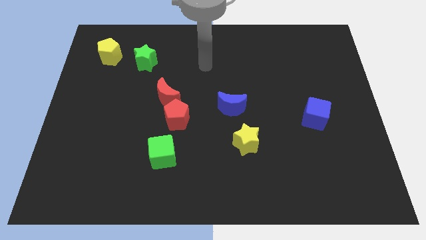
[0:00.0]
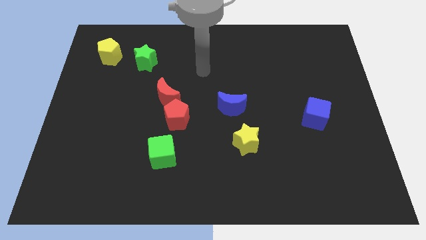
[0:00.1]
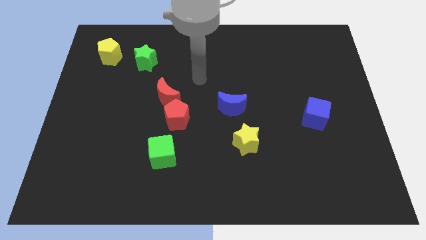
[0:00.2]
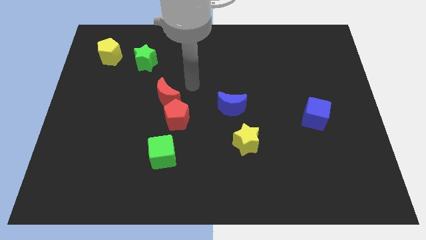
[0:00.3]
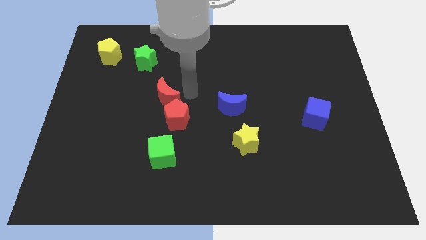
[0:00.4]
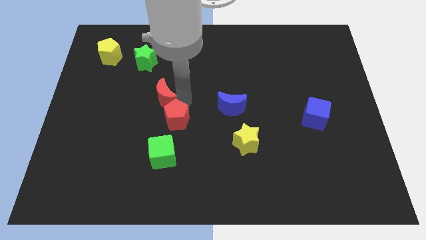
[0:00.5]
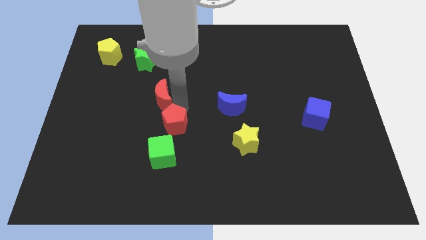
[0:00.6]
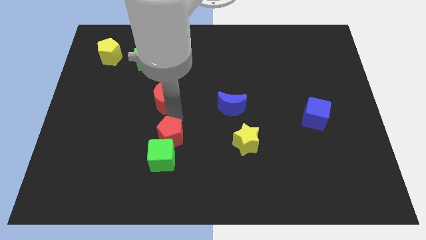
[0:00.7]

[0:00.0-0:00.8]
pull the red moon apart from the red pentagon

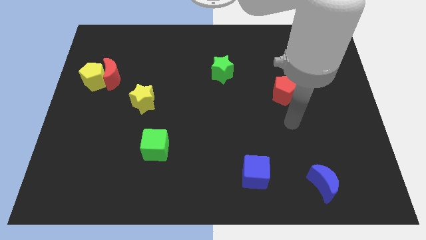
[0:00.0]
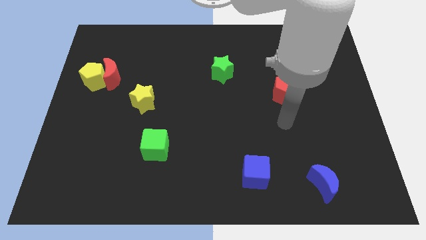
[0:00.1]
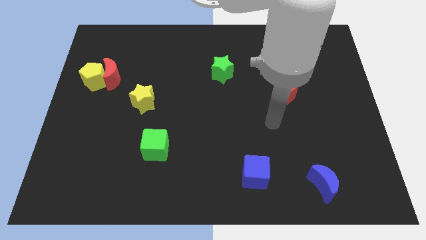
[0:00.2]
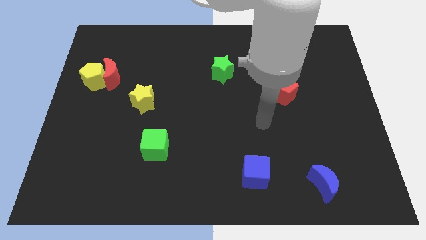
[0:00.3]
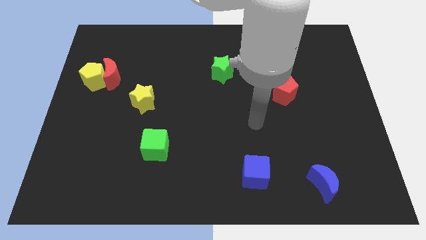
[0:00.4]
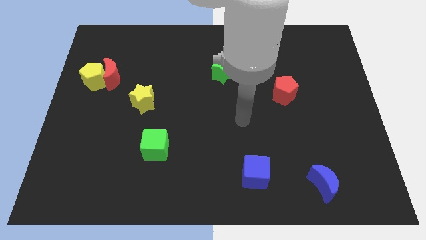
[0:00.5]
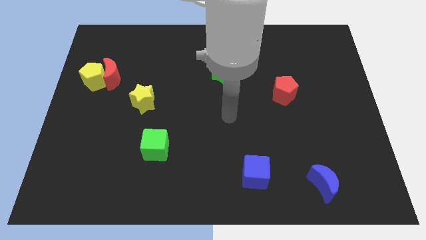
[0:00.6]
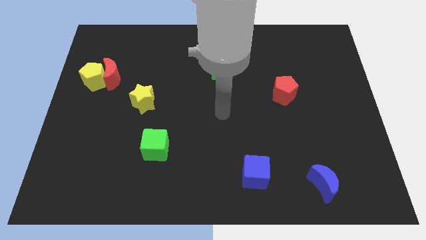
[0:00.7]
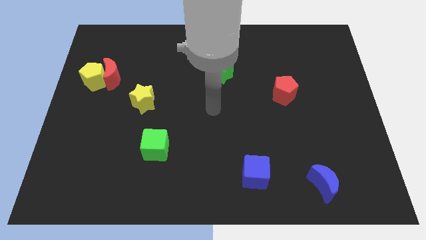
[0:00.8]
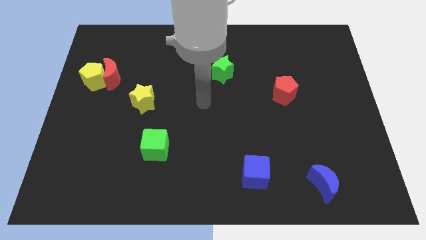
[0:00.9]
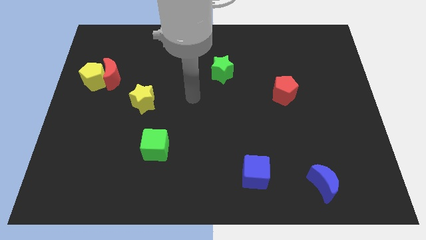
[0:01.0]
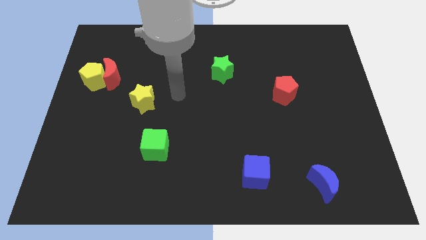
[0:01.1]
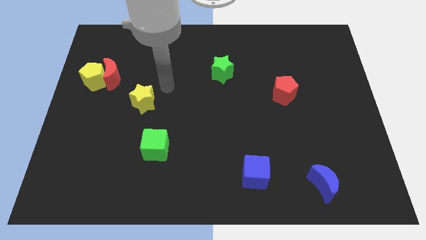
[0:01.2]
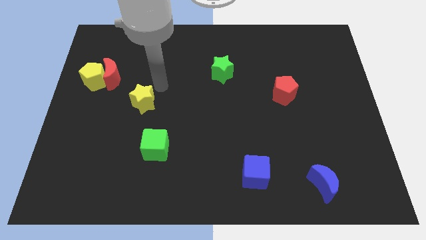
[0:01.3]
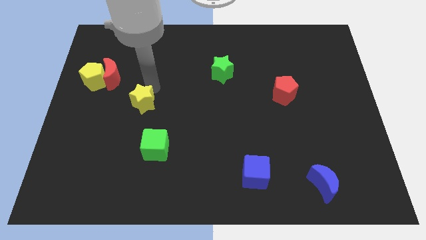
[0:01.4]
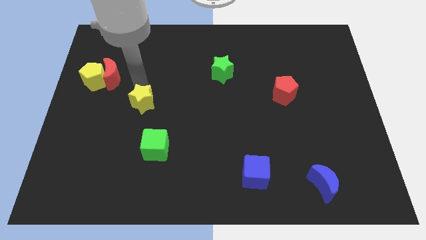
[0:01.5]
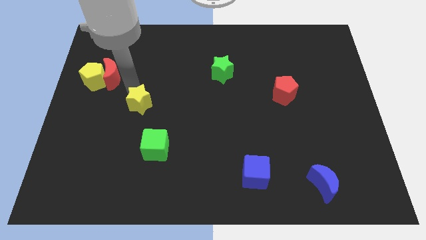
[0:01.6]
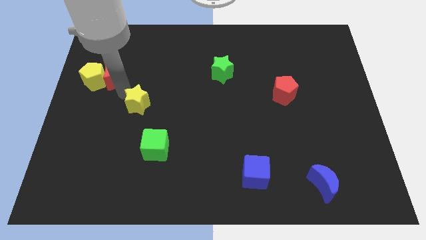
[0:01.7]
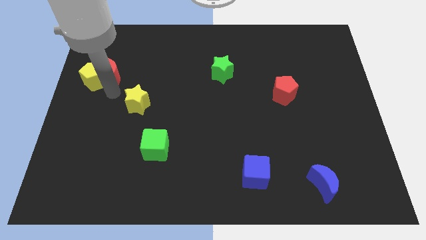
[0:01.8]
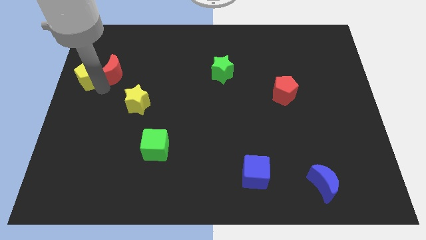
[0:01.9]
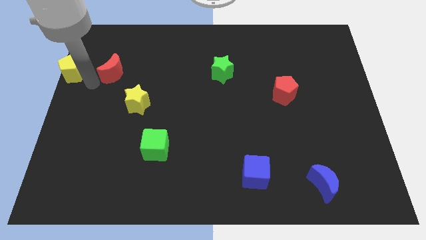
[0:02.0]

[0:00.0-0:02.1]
pull the red moon apart from the yellow pentagon

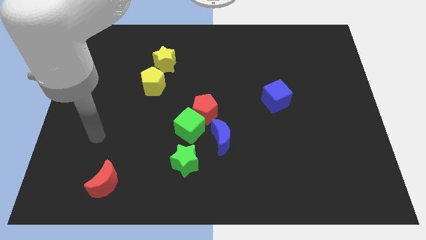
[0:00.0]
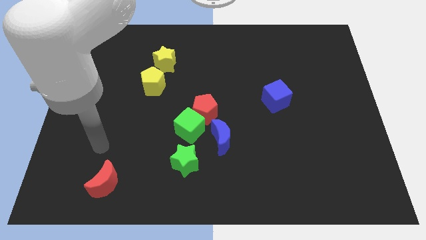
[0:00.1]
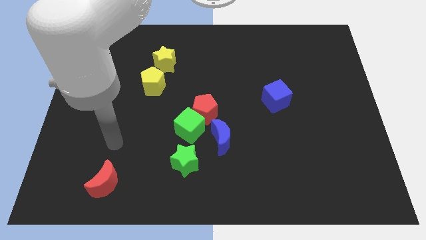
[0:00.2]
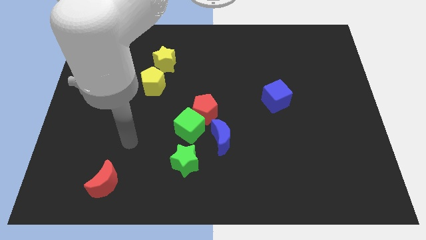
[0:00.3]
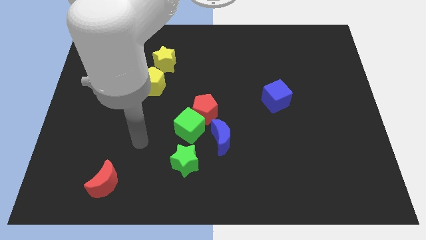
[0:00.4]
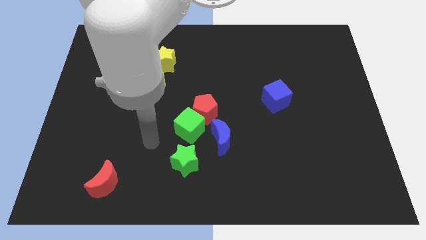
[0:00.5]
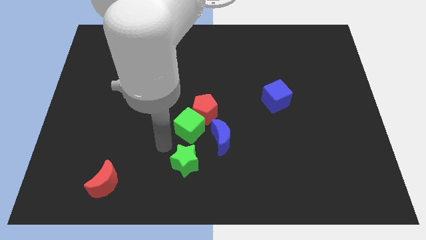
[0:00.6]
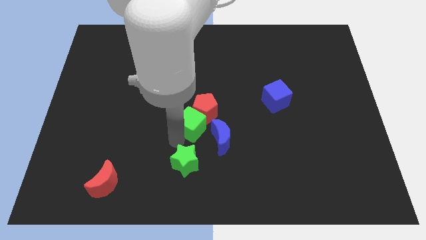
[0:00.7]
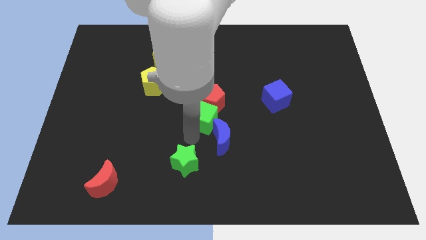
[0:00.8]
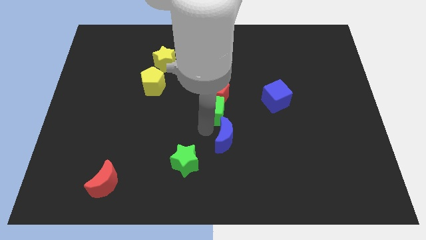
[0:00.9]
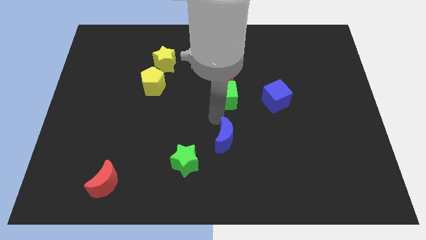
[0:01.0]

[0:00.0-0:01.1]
pull the red pentagon apart from the green cube and blue moon

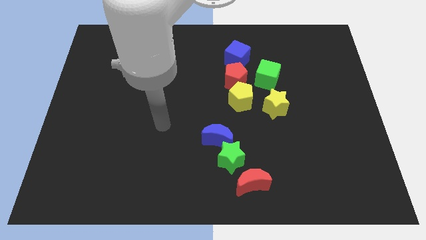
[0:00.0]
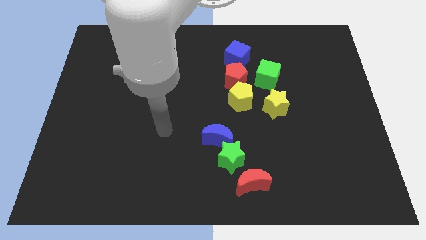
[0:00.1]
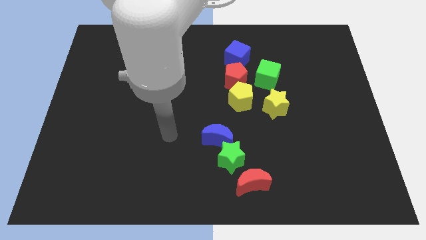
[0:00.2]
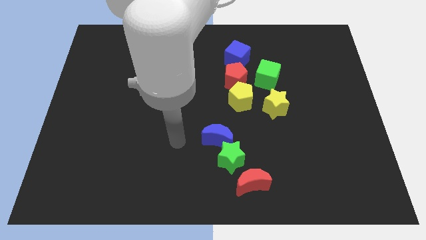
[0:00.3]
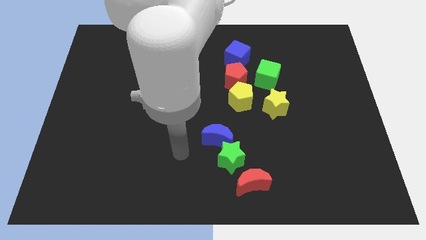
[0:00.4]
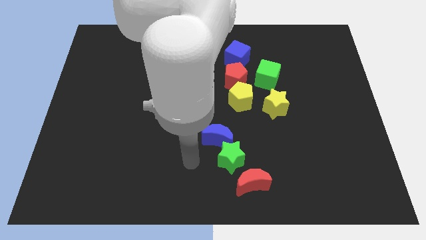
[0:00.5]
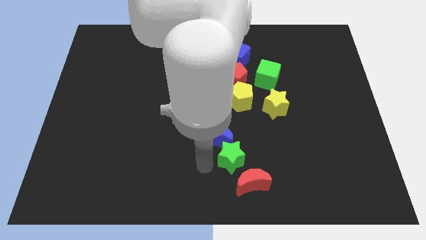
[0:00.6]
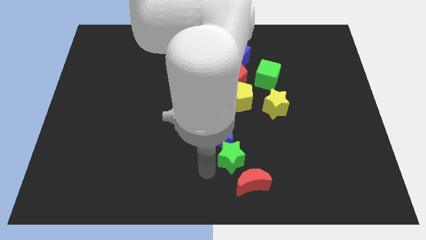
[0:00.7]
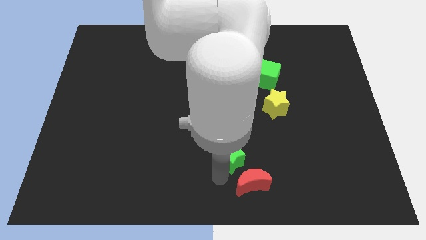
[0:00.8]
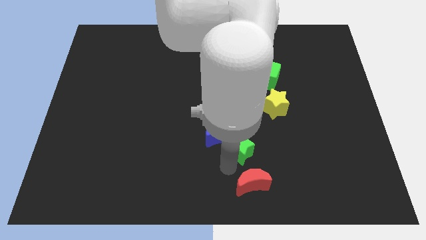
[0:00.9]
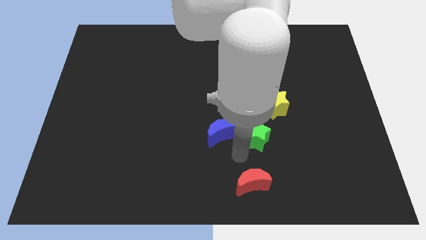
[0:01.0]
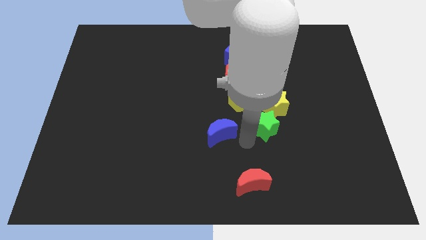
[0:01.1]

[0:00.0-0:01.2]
separate the blue moon from the green star

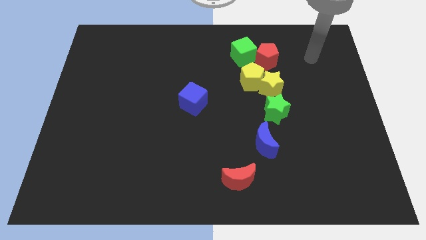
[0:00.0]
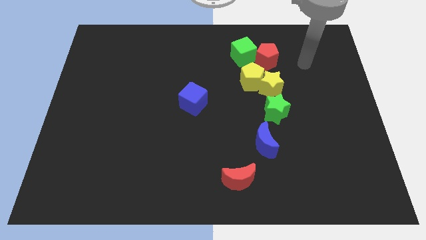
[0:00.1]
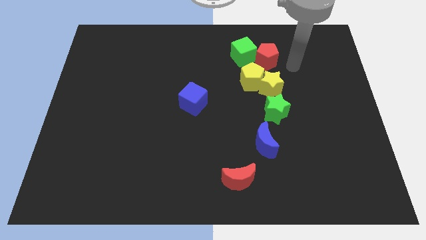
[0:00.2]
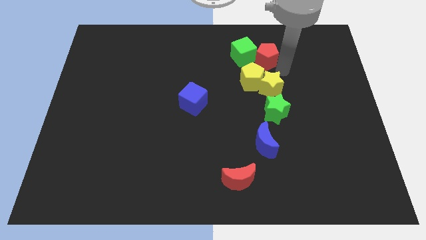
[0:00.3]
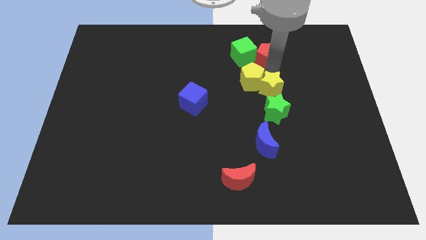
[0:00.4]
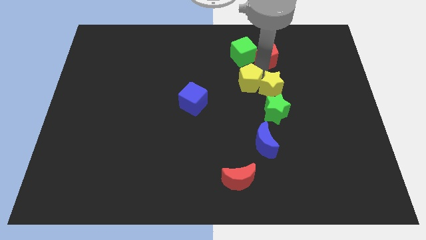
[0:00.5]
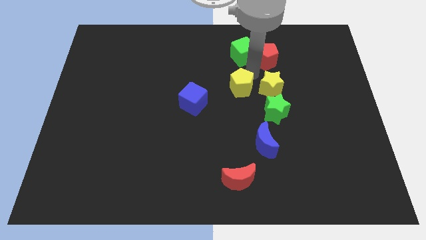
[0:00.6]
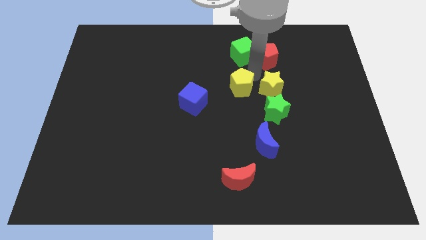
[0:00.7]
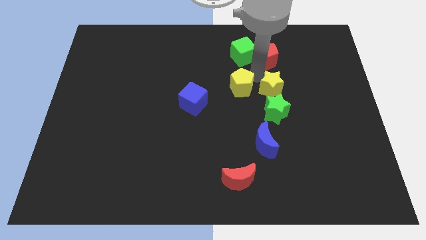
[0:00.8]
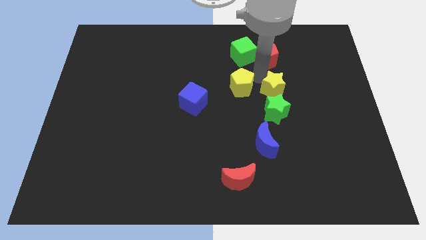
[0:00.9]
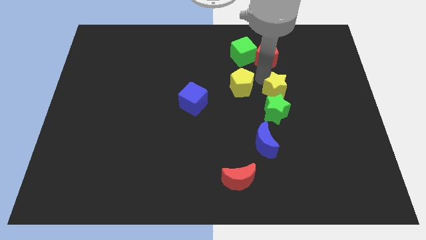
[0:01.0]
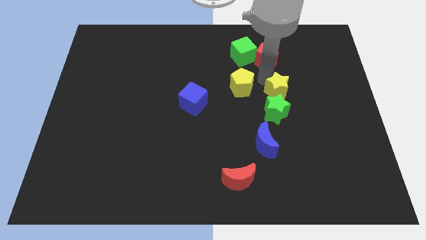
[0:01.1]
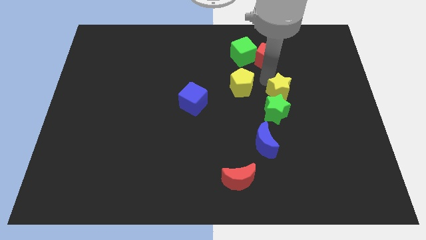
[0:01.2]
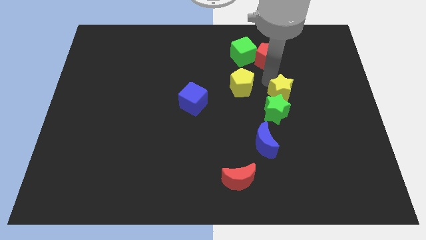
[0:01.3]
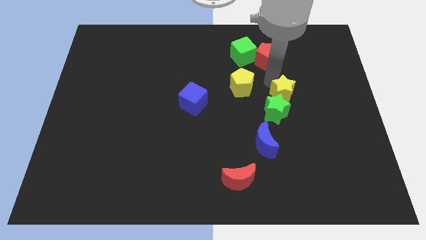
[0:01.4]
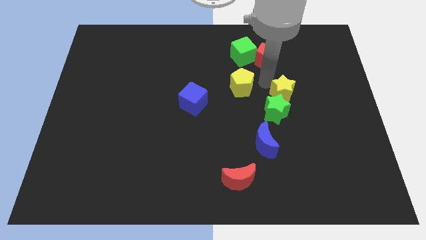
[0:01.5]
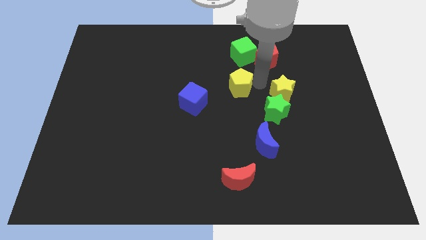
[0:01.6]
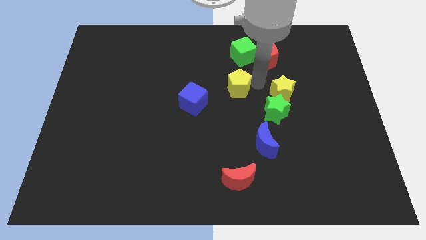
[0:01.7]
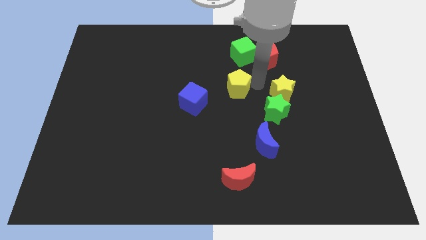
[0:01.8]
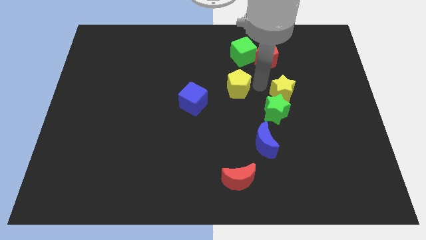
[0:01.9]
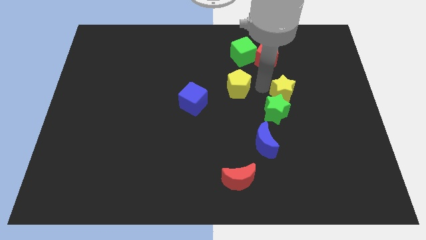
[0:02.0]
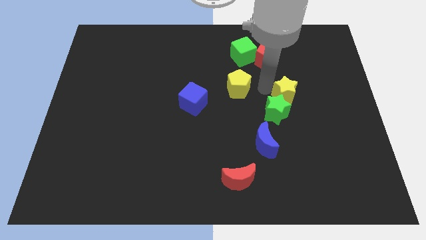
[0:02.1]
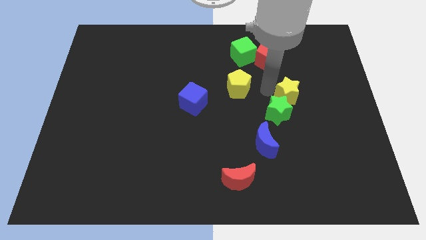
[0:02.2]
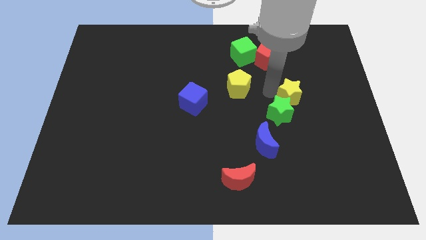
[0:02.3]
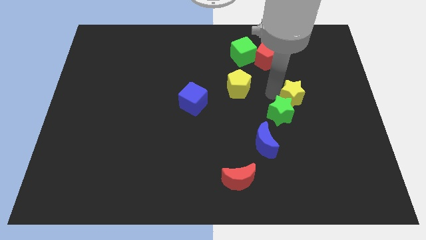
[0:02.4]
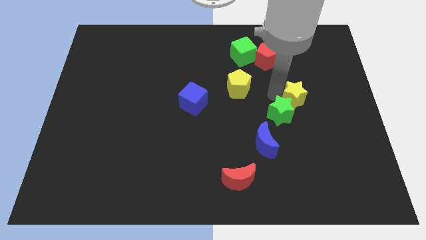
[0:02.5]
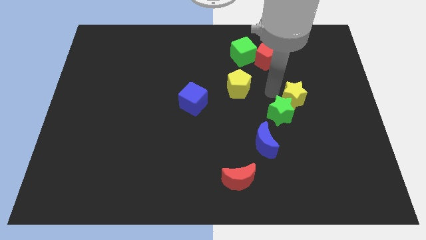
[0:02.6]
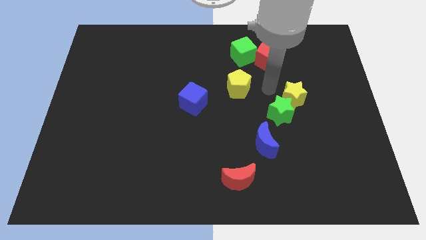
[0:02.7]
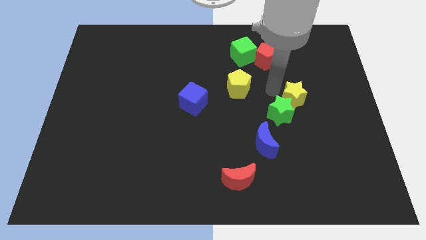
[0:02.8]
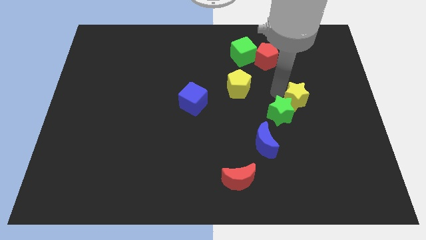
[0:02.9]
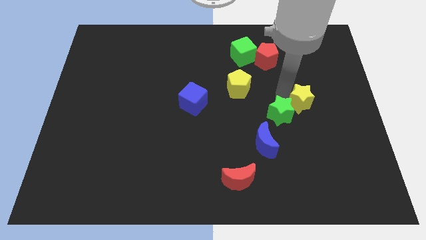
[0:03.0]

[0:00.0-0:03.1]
pull the yellow star apart from the clump

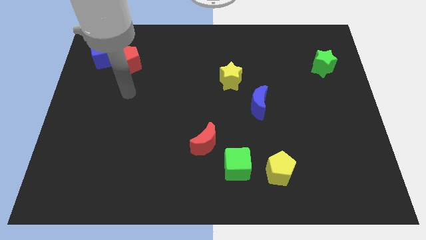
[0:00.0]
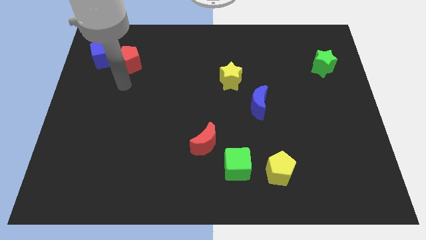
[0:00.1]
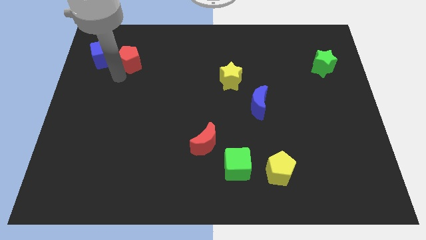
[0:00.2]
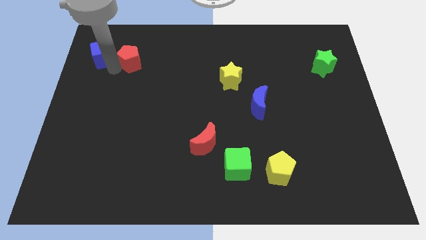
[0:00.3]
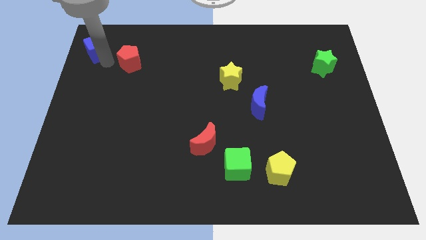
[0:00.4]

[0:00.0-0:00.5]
pull the red pentagon apart from the blue cube

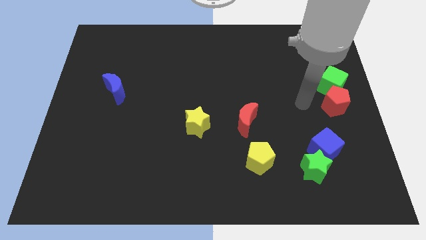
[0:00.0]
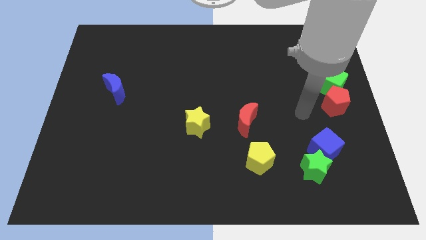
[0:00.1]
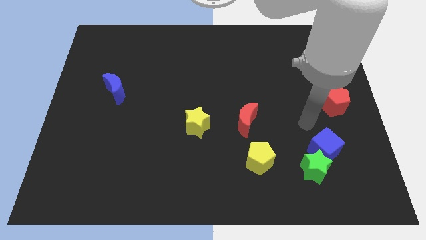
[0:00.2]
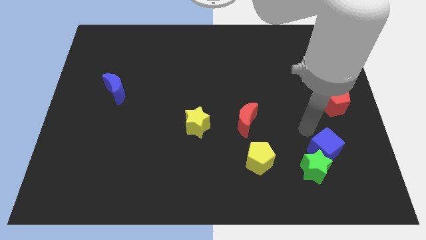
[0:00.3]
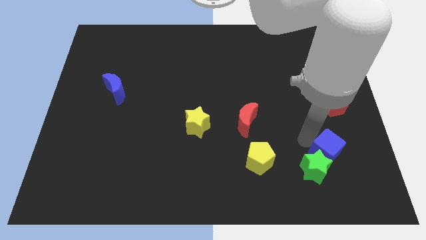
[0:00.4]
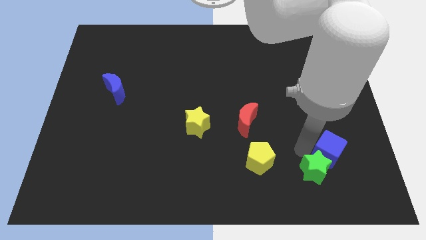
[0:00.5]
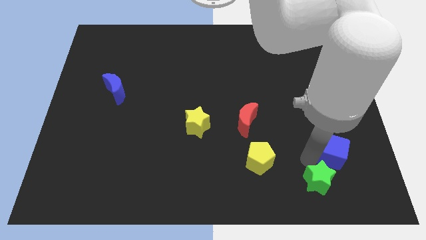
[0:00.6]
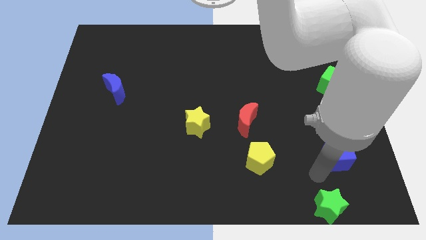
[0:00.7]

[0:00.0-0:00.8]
pull the blue cube apart from the green star
